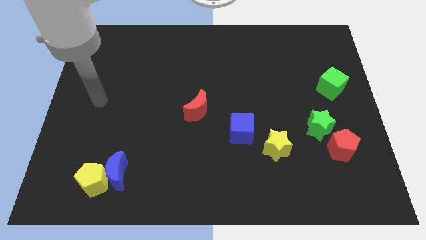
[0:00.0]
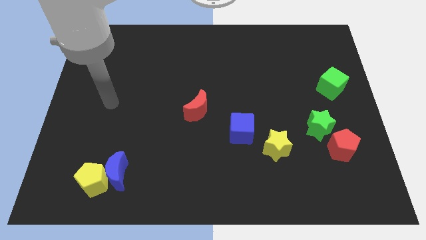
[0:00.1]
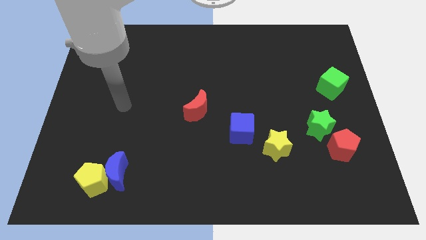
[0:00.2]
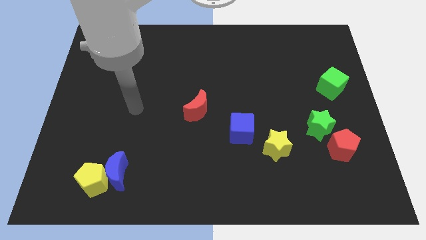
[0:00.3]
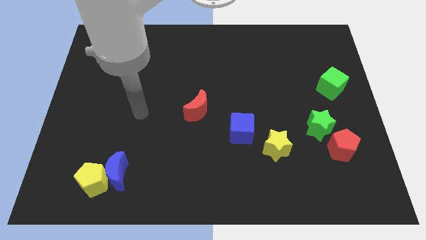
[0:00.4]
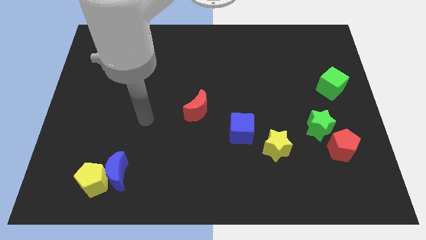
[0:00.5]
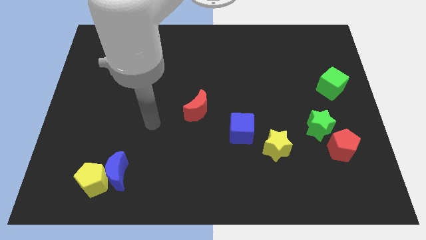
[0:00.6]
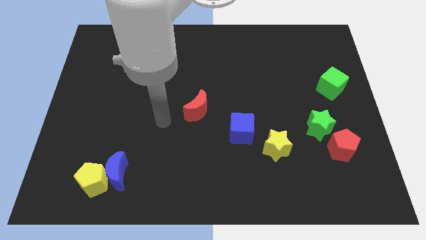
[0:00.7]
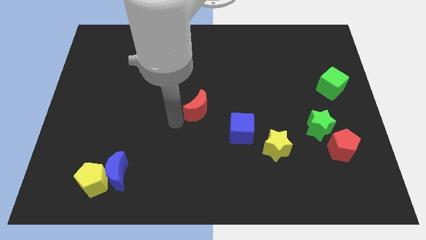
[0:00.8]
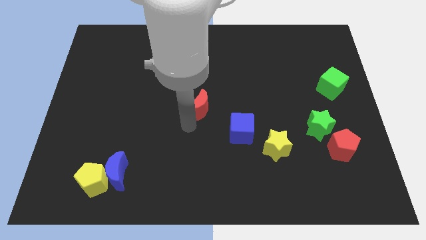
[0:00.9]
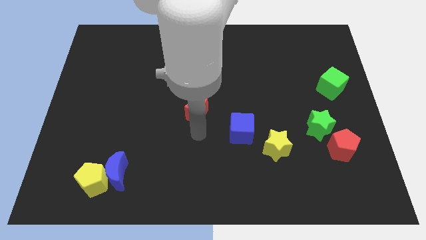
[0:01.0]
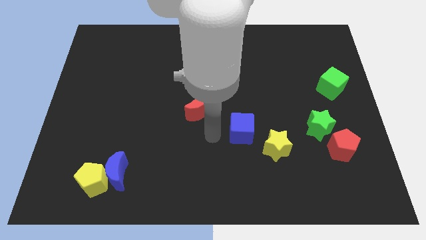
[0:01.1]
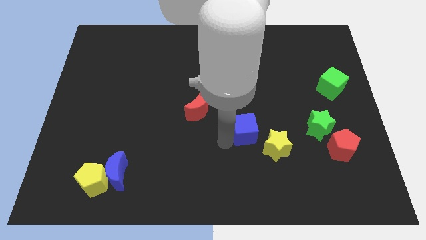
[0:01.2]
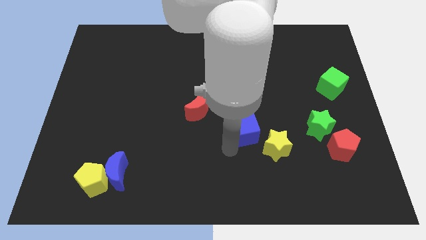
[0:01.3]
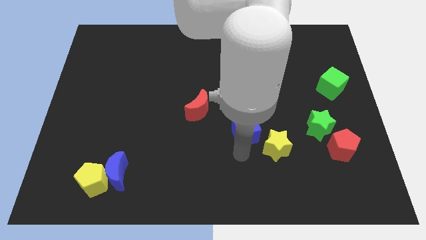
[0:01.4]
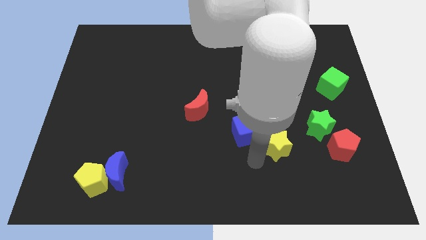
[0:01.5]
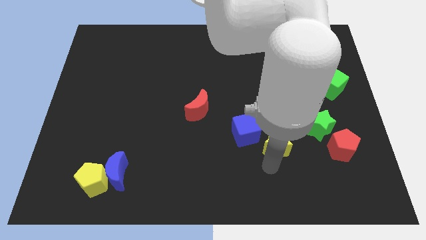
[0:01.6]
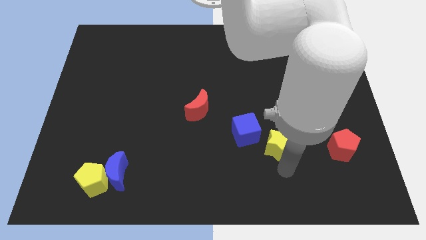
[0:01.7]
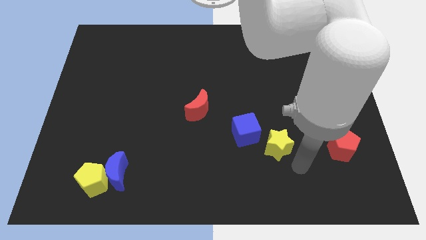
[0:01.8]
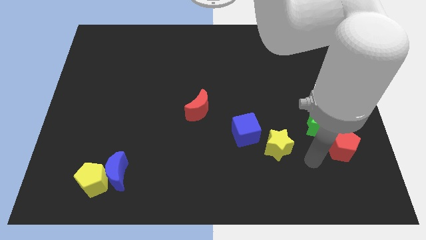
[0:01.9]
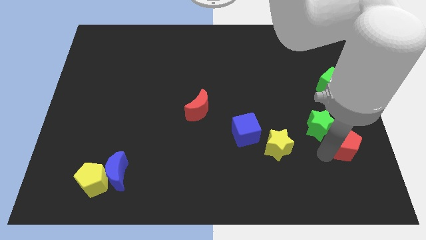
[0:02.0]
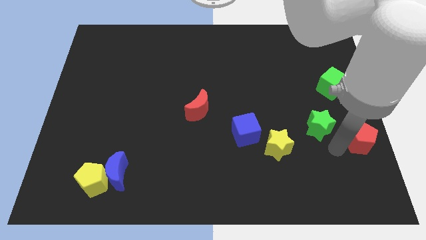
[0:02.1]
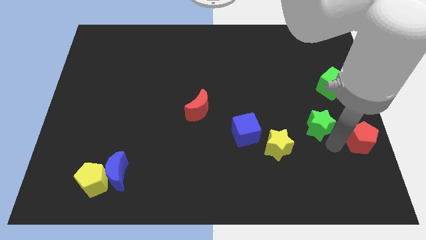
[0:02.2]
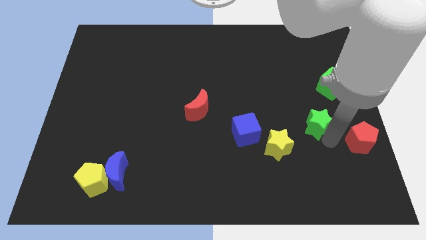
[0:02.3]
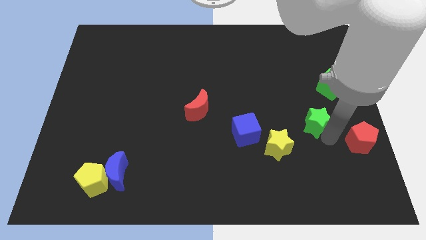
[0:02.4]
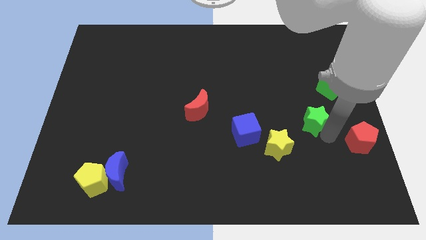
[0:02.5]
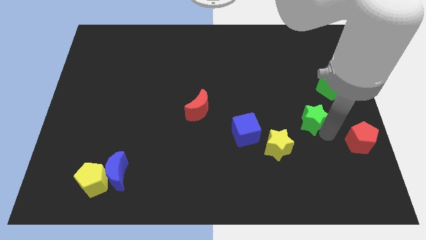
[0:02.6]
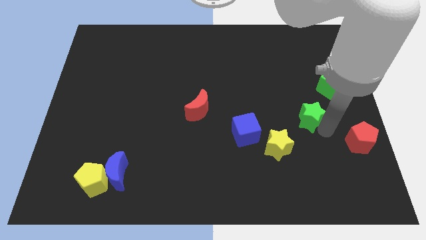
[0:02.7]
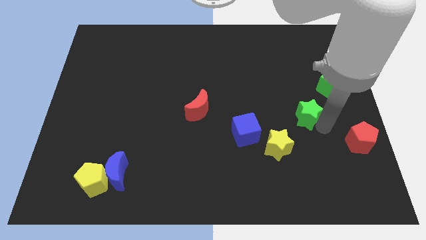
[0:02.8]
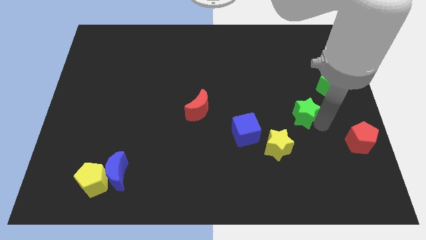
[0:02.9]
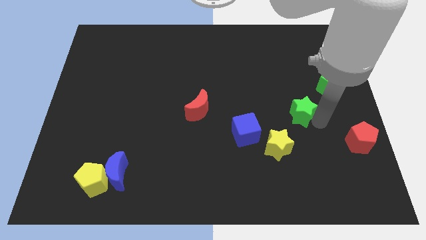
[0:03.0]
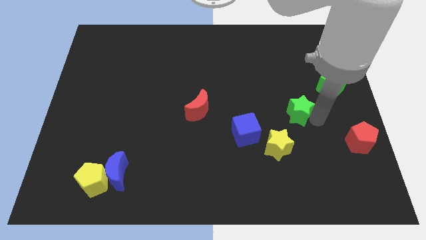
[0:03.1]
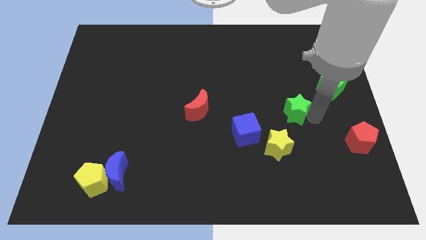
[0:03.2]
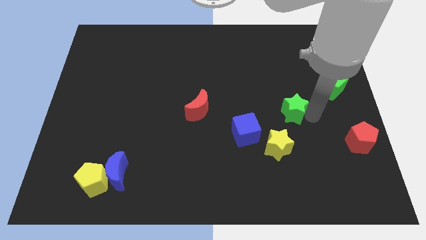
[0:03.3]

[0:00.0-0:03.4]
push the green star slightly upwards and then left

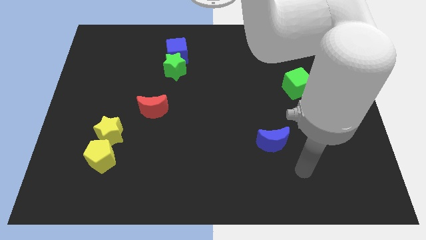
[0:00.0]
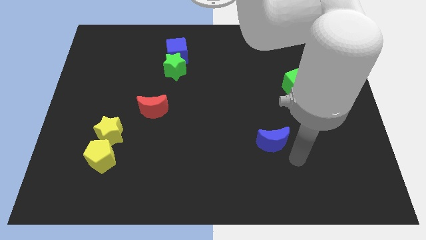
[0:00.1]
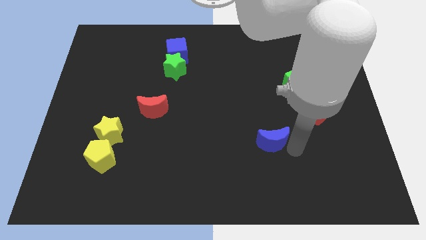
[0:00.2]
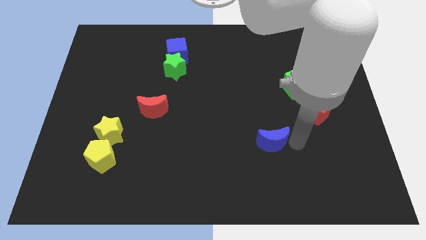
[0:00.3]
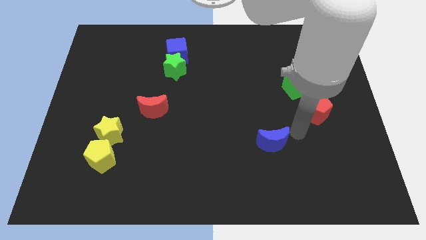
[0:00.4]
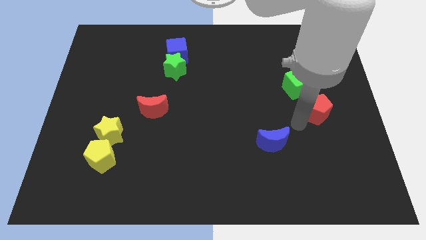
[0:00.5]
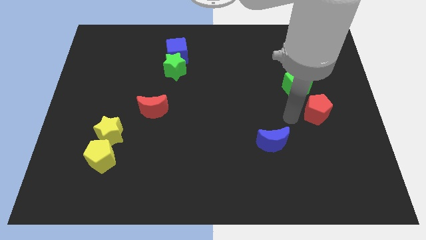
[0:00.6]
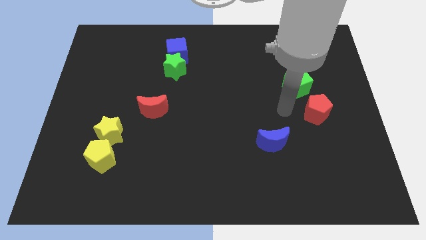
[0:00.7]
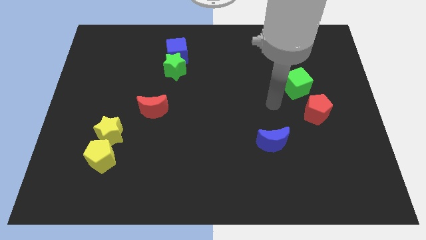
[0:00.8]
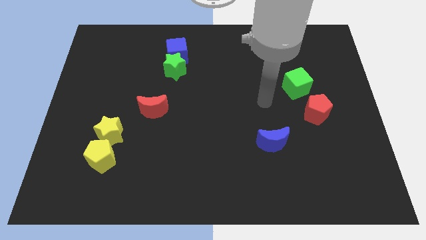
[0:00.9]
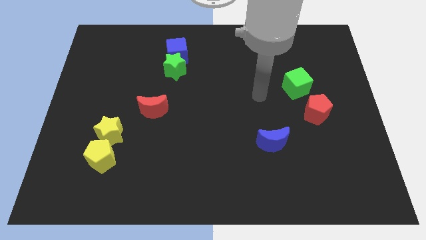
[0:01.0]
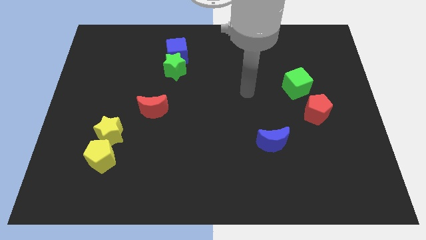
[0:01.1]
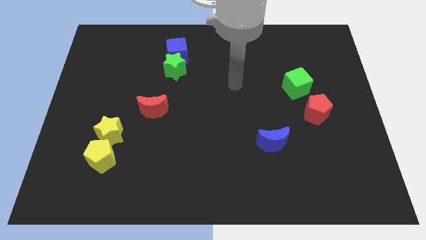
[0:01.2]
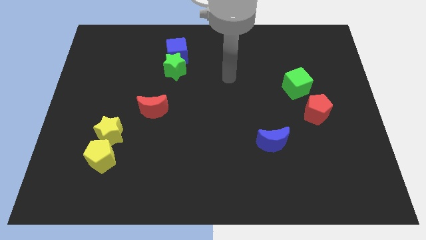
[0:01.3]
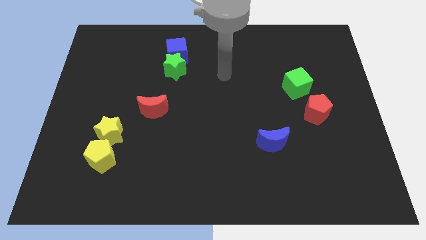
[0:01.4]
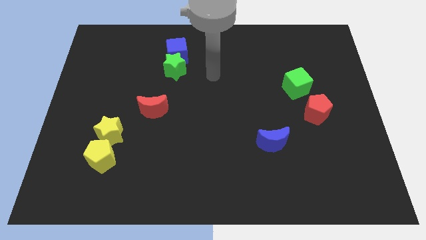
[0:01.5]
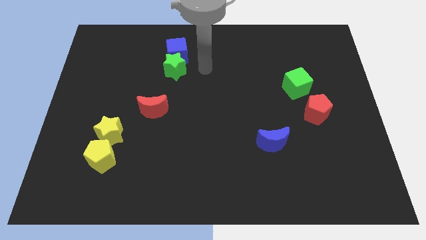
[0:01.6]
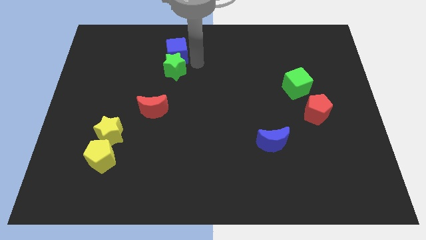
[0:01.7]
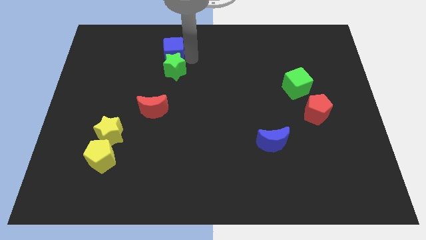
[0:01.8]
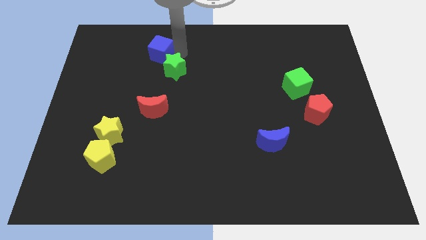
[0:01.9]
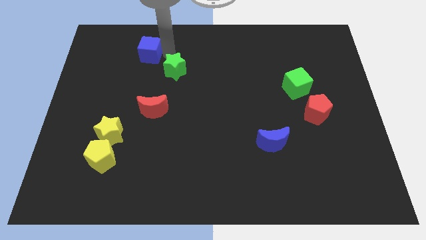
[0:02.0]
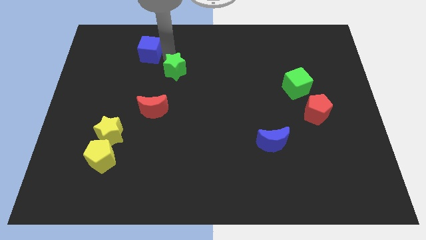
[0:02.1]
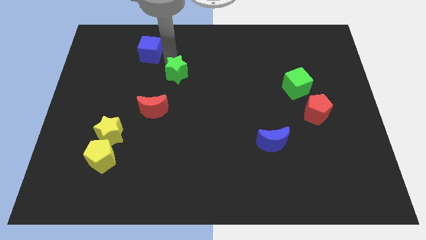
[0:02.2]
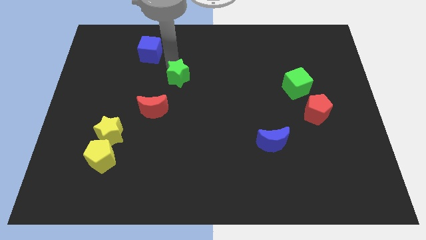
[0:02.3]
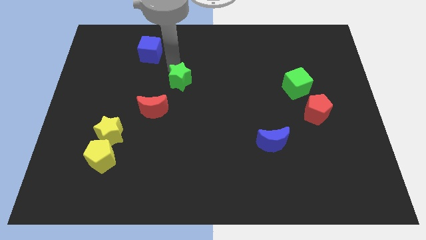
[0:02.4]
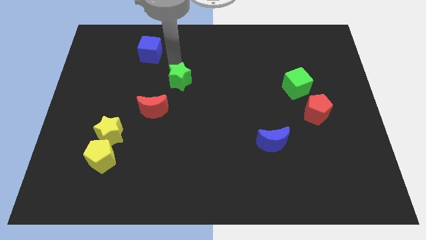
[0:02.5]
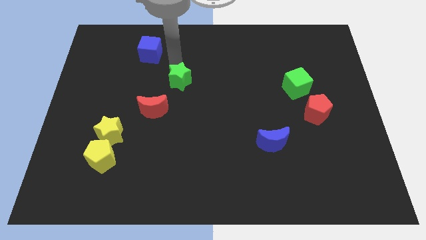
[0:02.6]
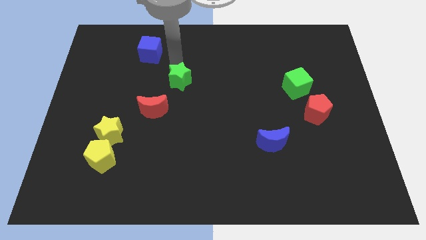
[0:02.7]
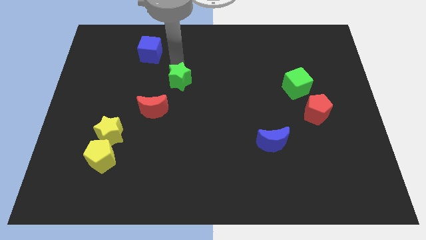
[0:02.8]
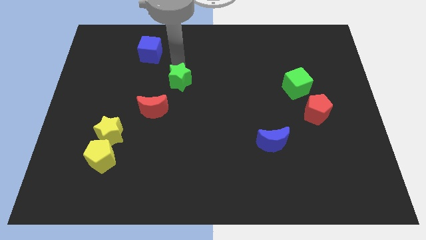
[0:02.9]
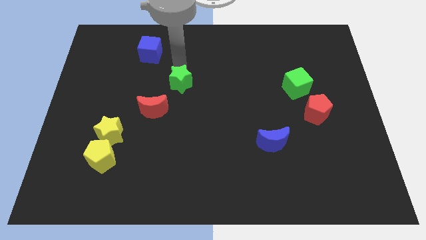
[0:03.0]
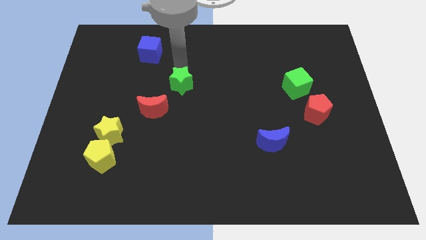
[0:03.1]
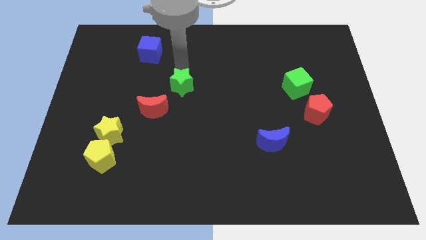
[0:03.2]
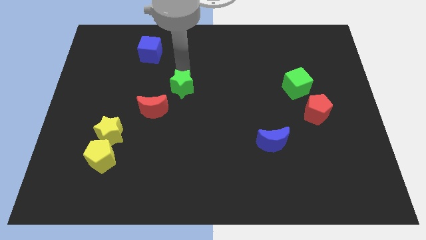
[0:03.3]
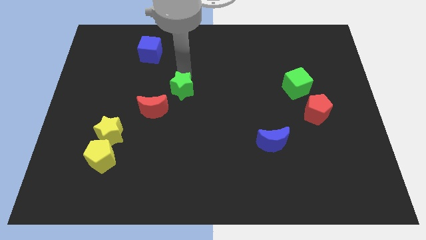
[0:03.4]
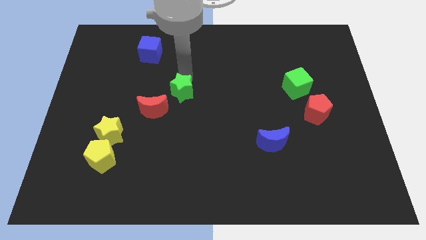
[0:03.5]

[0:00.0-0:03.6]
move the green star down a little bit

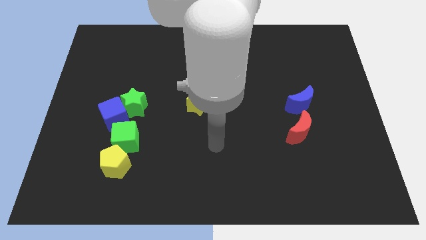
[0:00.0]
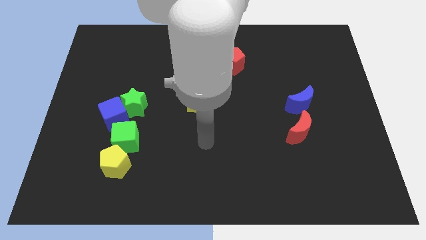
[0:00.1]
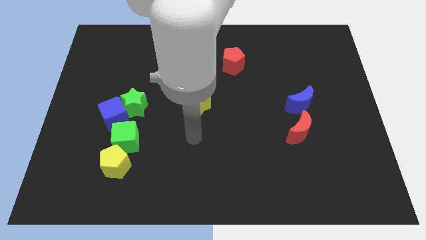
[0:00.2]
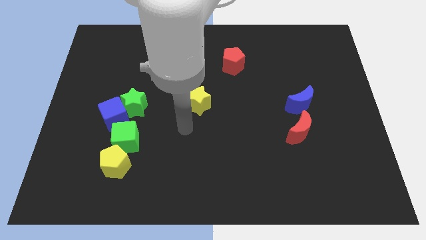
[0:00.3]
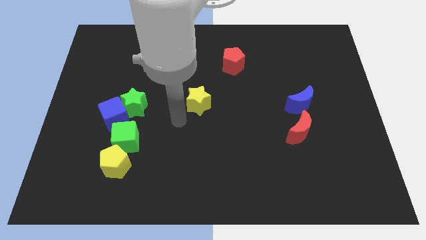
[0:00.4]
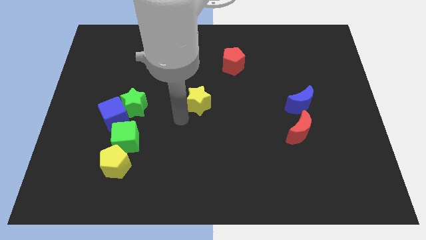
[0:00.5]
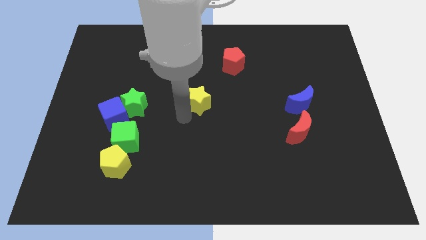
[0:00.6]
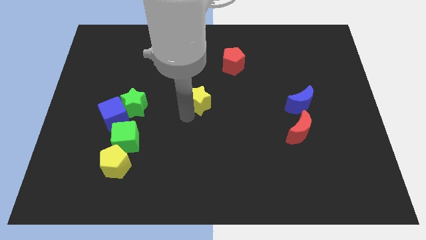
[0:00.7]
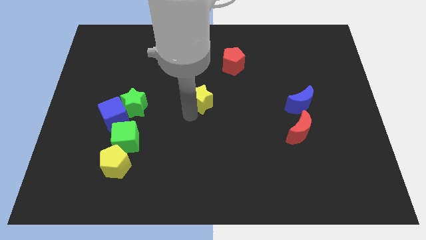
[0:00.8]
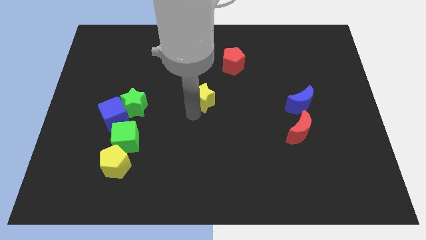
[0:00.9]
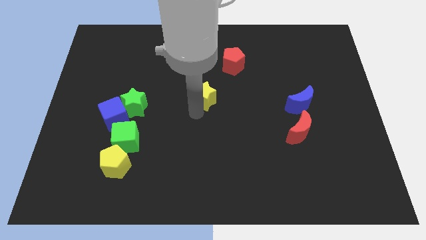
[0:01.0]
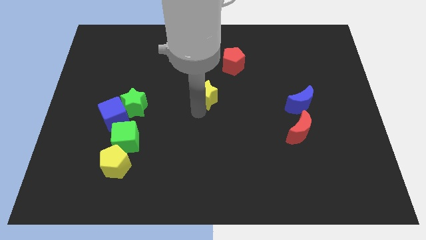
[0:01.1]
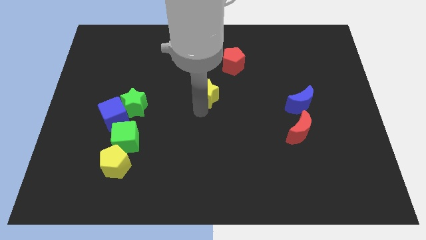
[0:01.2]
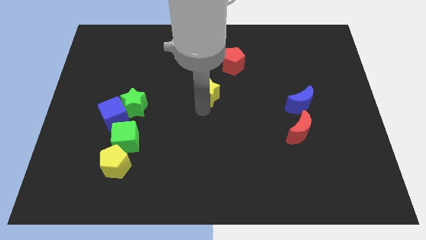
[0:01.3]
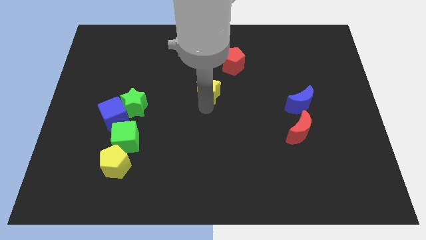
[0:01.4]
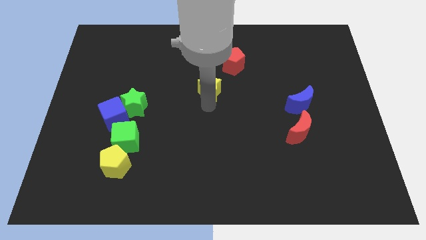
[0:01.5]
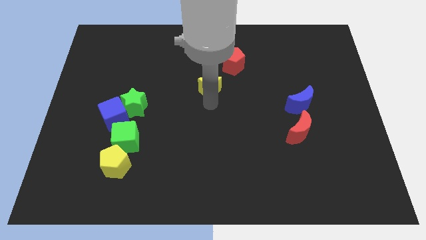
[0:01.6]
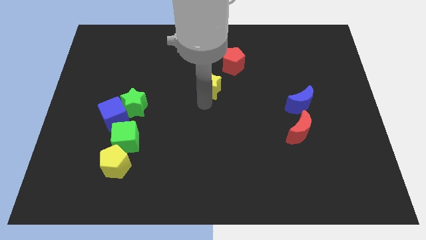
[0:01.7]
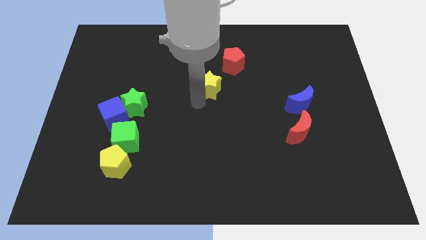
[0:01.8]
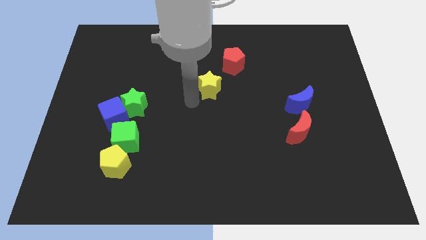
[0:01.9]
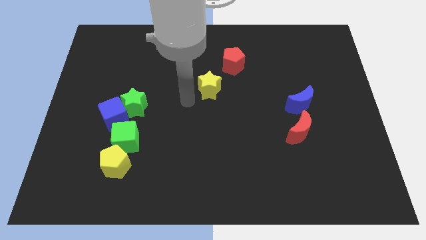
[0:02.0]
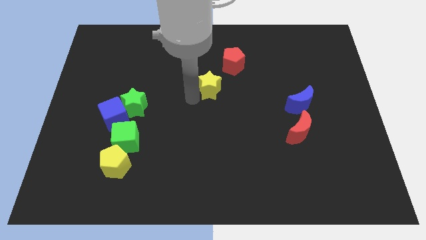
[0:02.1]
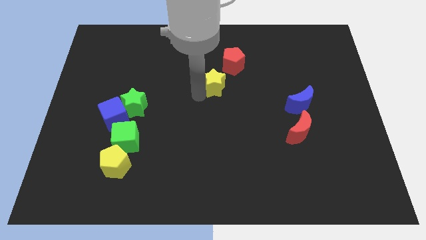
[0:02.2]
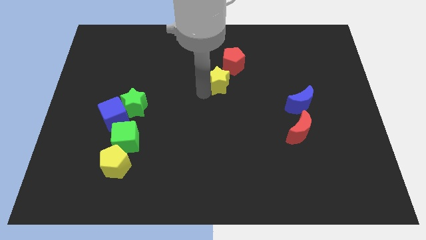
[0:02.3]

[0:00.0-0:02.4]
move the yellow star up and then to the right a little bit
